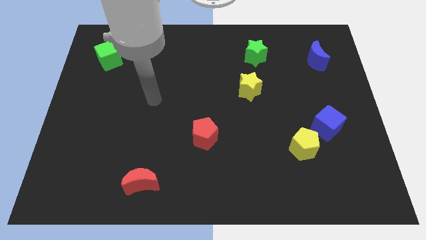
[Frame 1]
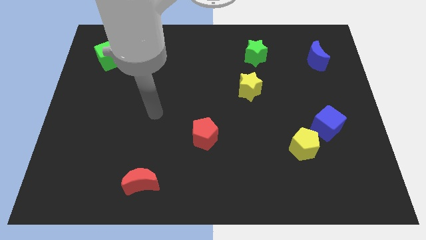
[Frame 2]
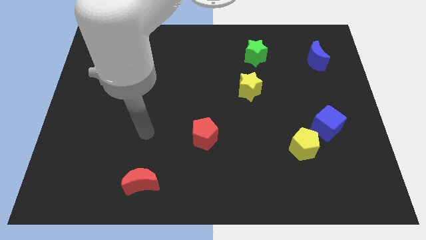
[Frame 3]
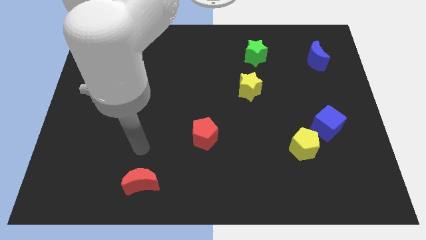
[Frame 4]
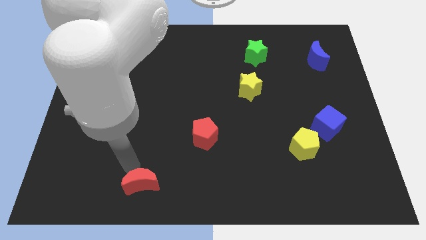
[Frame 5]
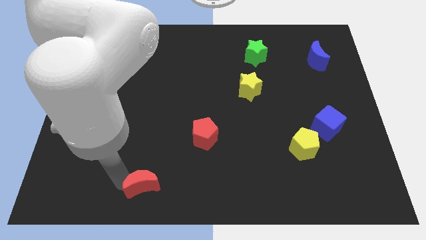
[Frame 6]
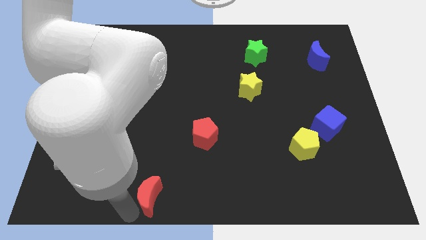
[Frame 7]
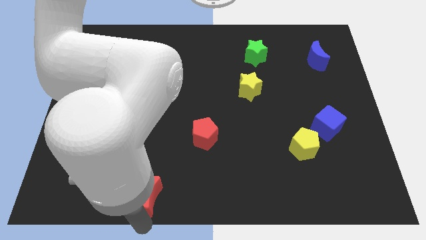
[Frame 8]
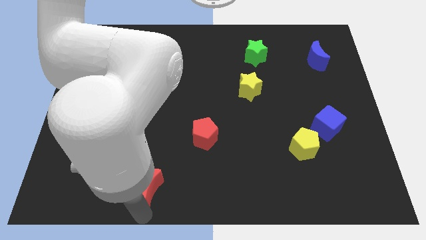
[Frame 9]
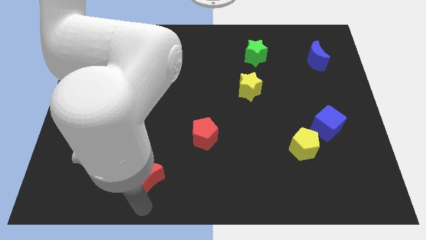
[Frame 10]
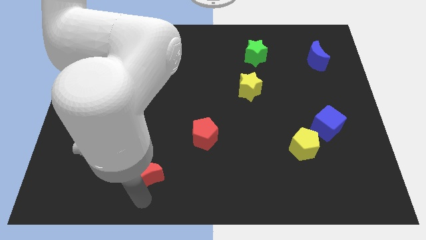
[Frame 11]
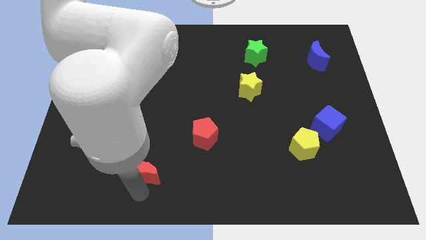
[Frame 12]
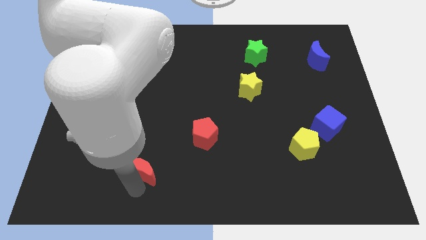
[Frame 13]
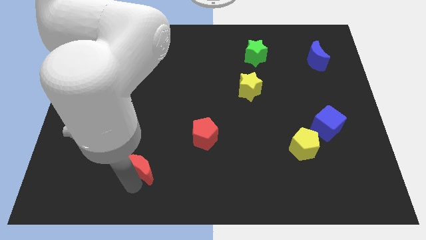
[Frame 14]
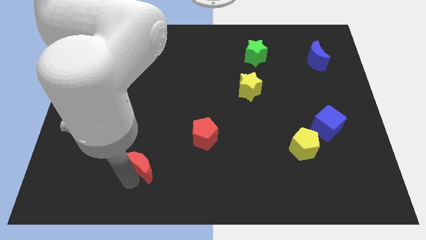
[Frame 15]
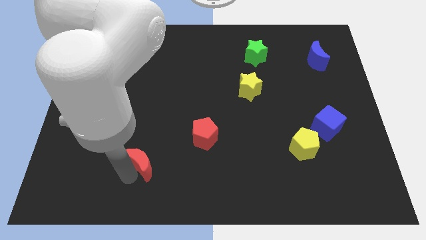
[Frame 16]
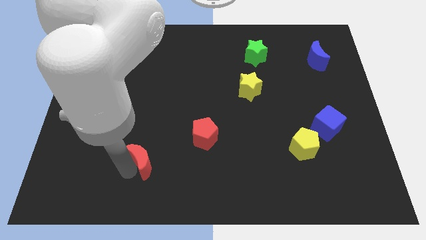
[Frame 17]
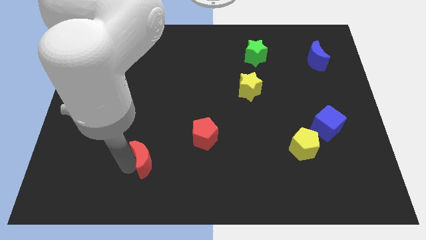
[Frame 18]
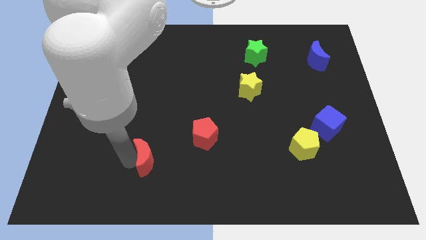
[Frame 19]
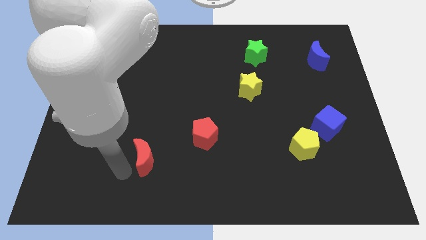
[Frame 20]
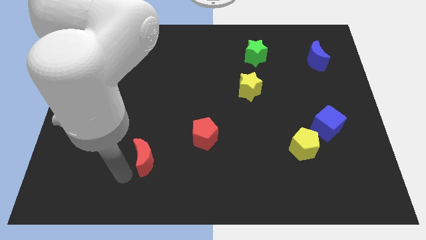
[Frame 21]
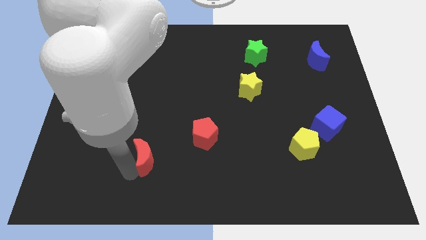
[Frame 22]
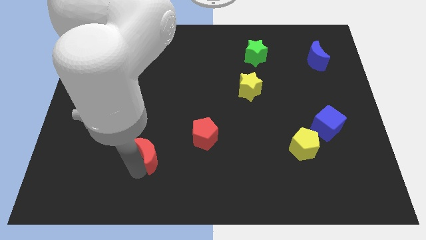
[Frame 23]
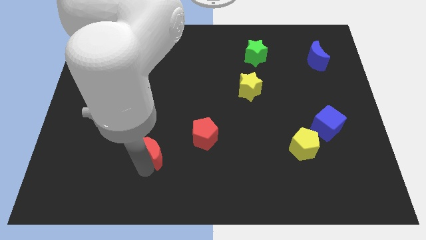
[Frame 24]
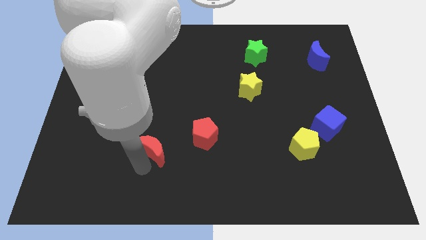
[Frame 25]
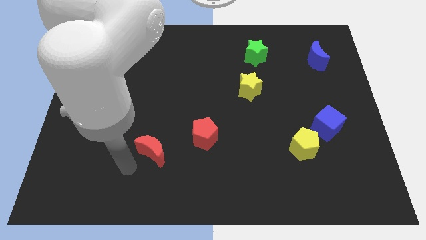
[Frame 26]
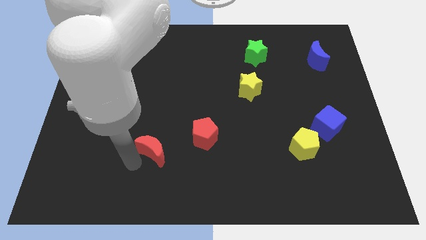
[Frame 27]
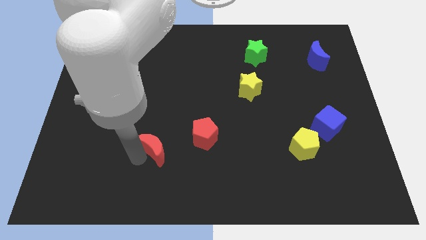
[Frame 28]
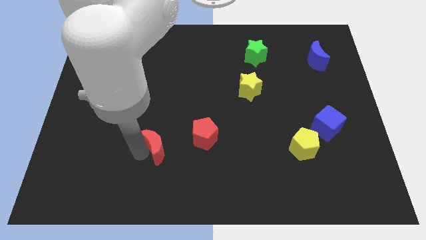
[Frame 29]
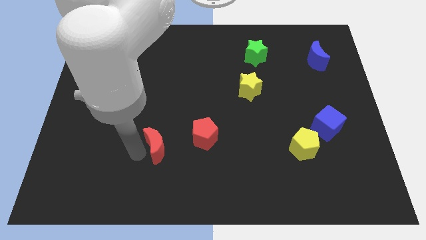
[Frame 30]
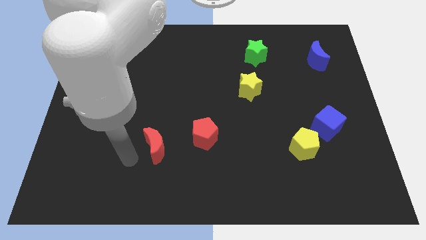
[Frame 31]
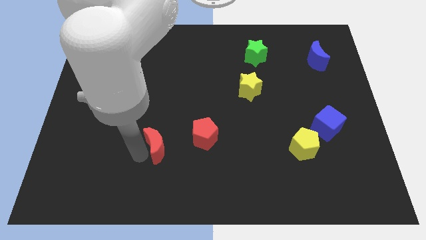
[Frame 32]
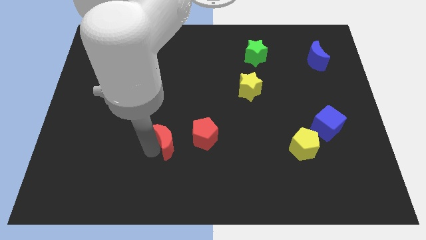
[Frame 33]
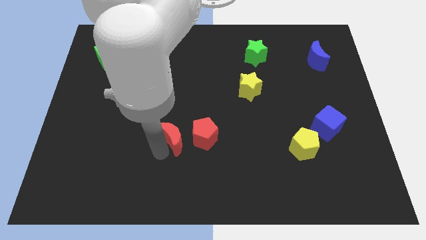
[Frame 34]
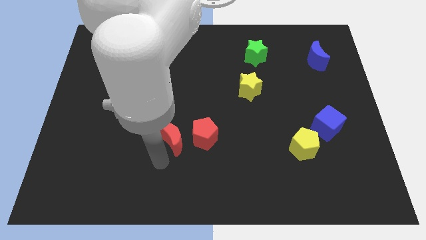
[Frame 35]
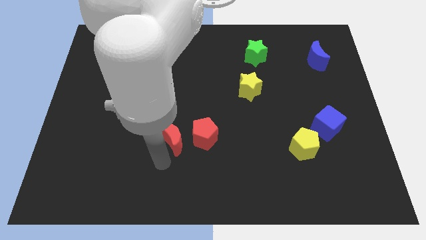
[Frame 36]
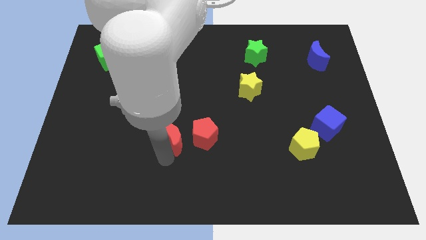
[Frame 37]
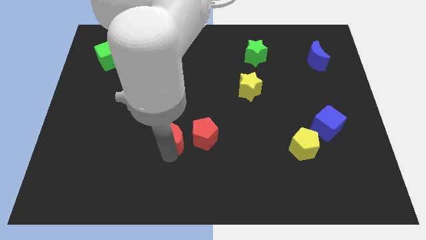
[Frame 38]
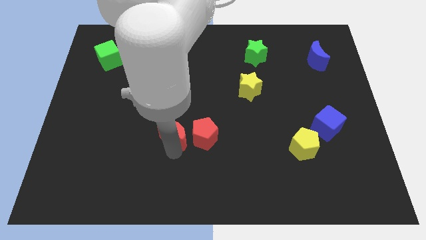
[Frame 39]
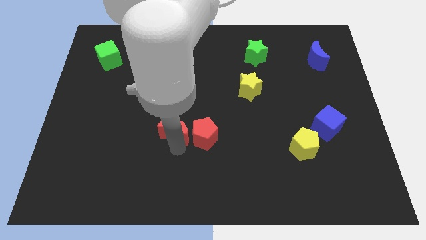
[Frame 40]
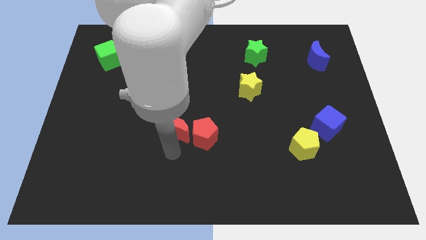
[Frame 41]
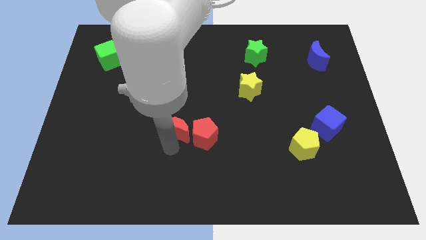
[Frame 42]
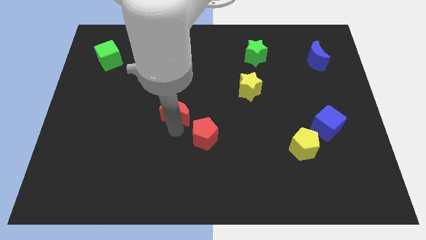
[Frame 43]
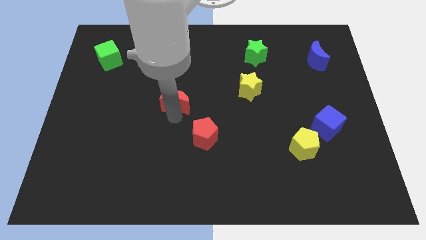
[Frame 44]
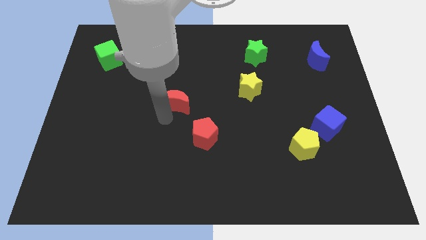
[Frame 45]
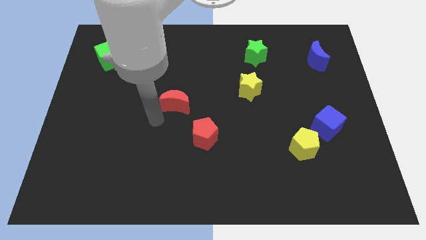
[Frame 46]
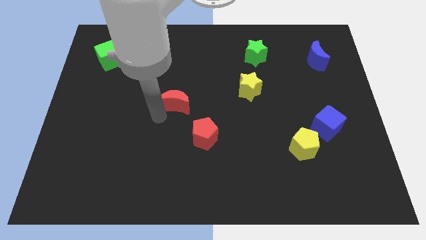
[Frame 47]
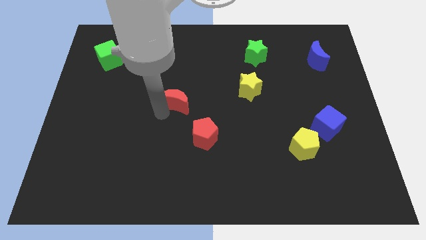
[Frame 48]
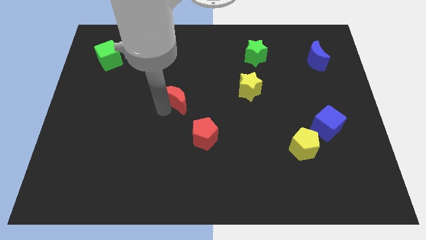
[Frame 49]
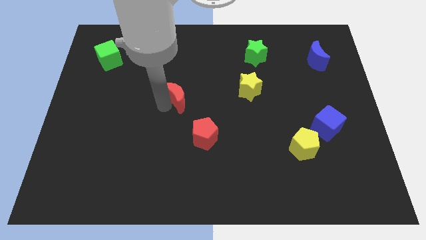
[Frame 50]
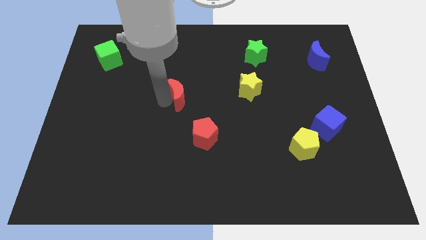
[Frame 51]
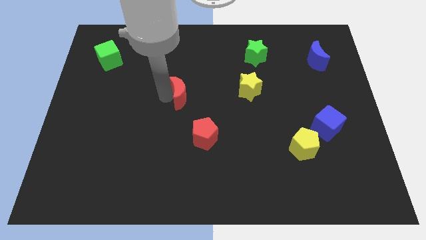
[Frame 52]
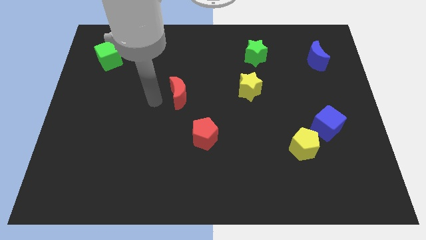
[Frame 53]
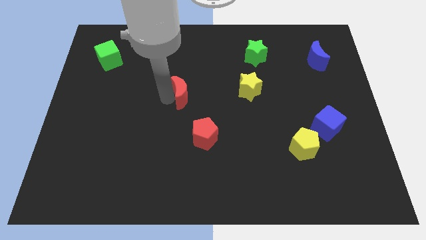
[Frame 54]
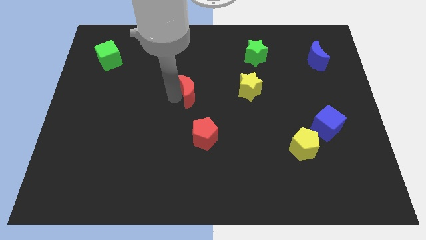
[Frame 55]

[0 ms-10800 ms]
put the red moon to the left side of the yellow star

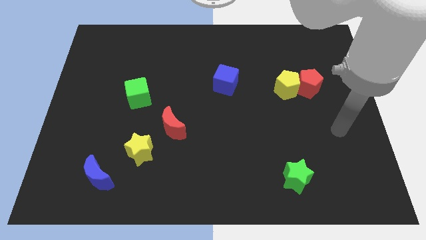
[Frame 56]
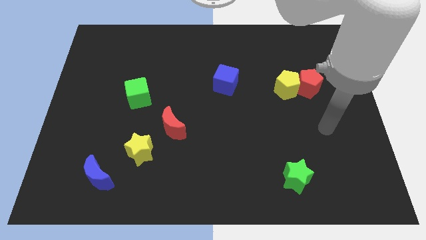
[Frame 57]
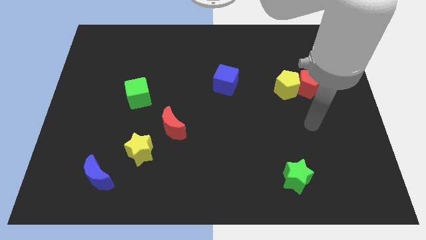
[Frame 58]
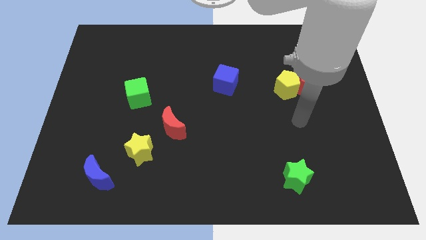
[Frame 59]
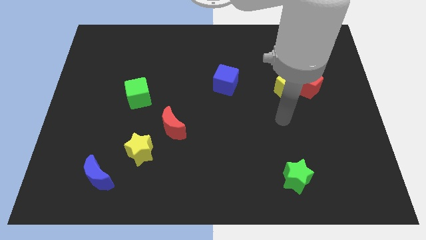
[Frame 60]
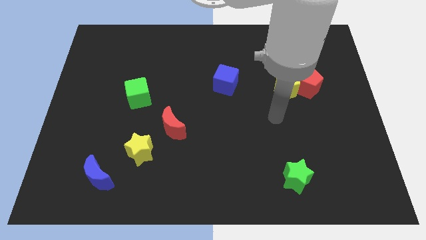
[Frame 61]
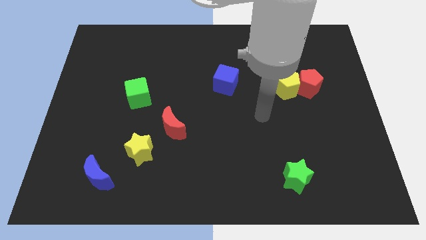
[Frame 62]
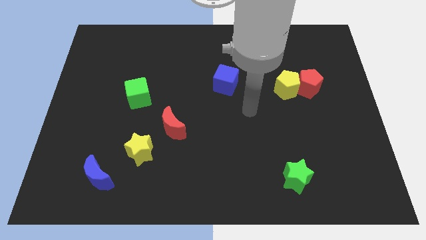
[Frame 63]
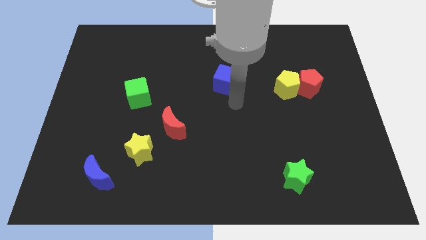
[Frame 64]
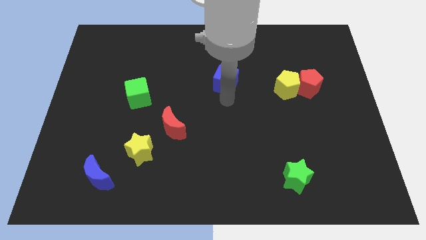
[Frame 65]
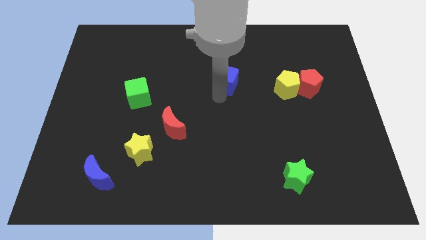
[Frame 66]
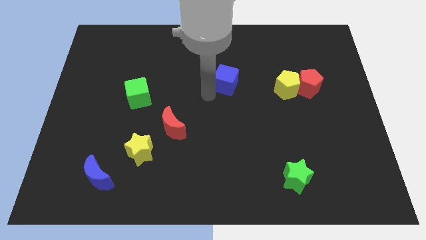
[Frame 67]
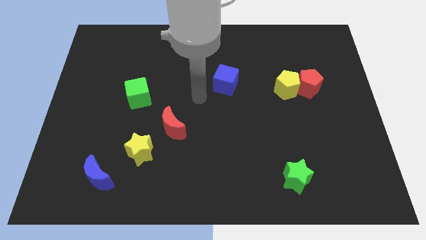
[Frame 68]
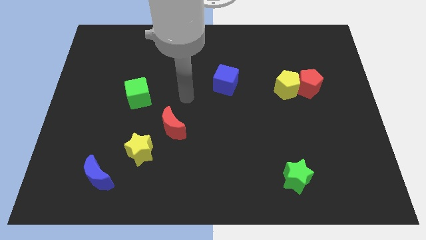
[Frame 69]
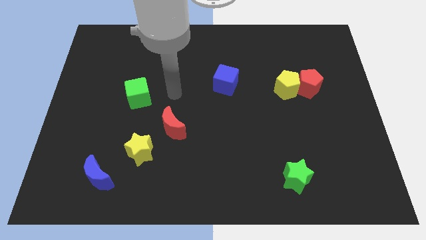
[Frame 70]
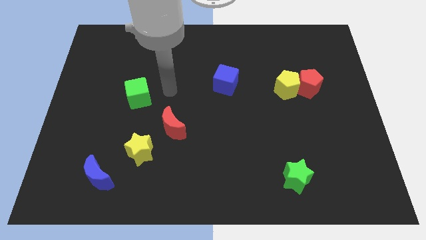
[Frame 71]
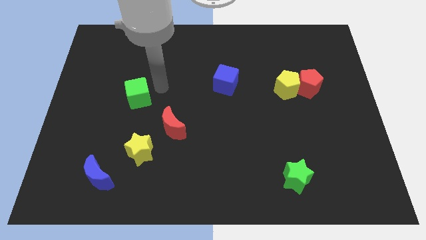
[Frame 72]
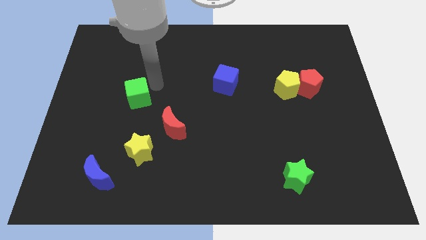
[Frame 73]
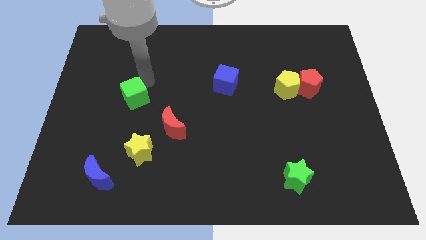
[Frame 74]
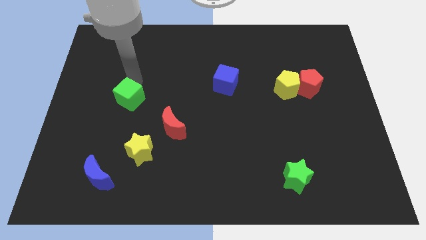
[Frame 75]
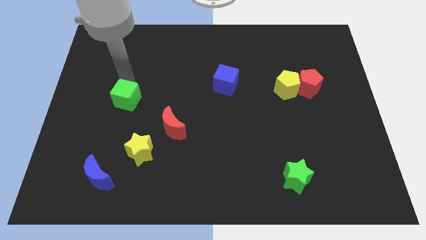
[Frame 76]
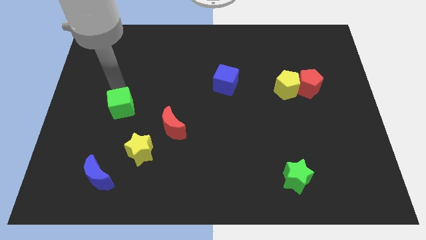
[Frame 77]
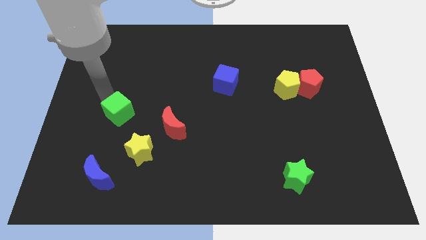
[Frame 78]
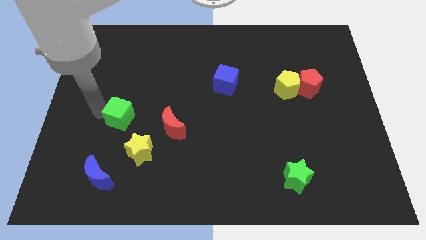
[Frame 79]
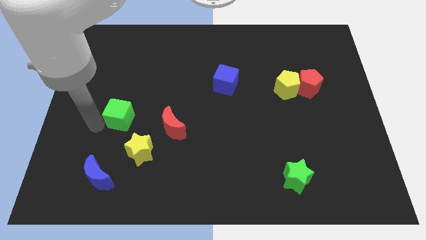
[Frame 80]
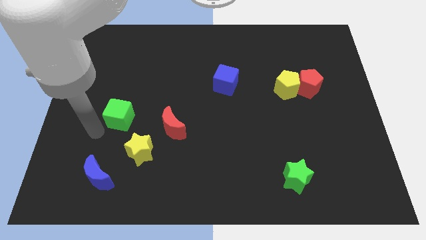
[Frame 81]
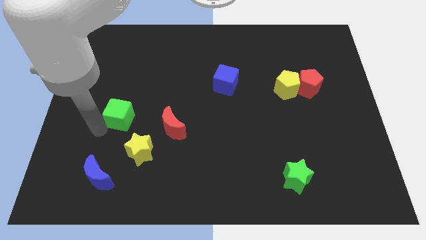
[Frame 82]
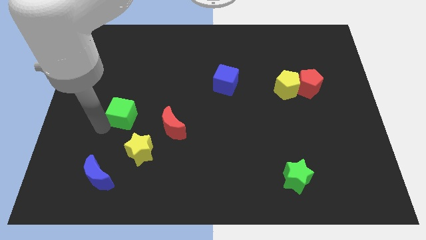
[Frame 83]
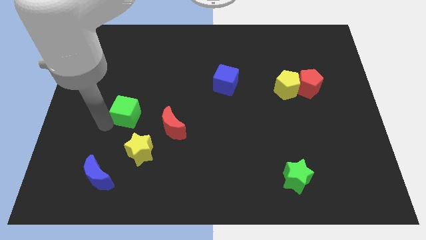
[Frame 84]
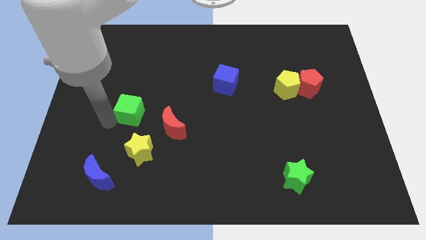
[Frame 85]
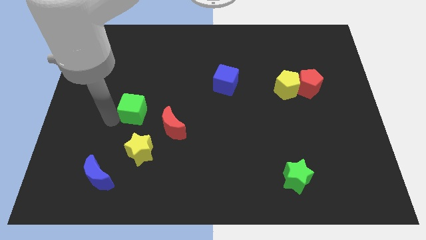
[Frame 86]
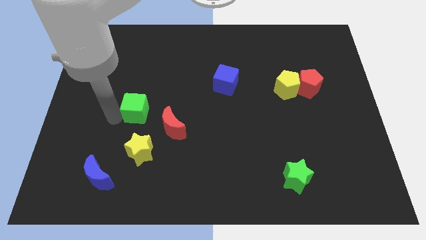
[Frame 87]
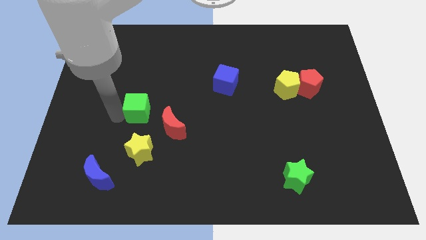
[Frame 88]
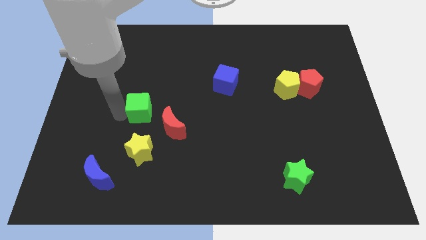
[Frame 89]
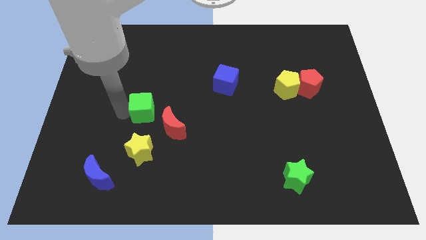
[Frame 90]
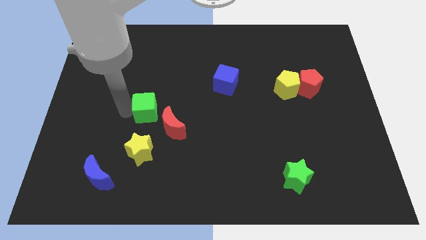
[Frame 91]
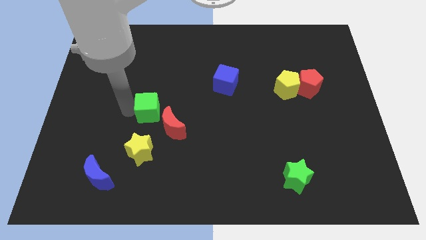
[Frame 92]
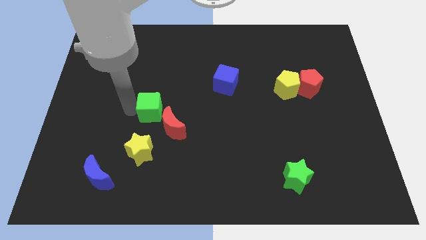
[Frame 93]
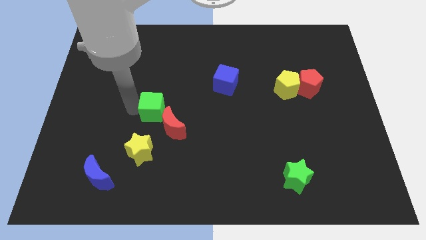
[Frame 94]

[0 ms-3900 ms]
put the green cube above the red moon
